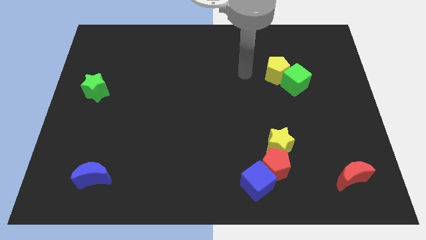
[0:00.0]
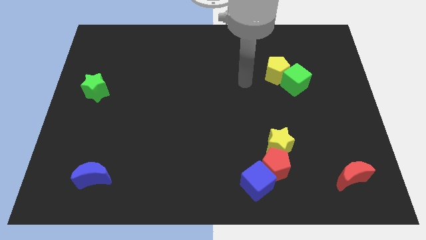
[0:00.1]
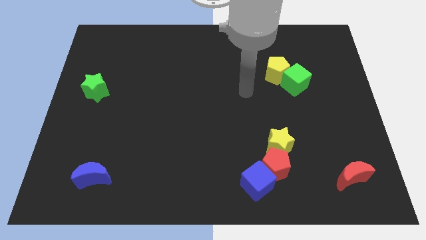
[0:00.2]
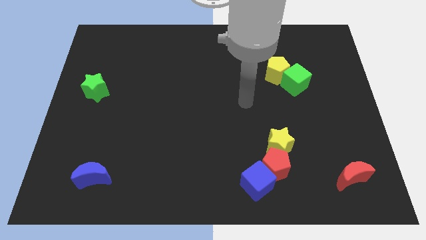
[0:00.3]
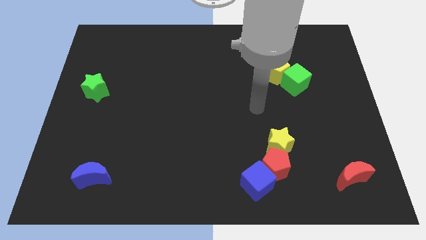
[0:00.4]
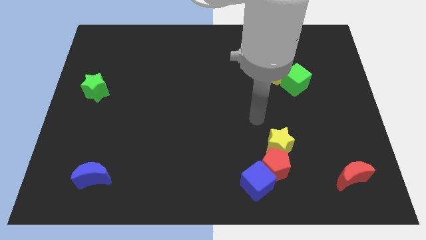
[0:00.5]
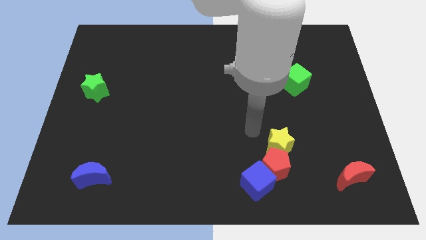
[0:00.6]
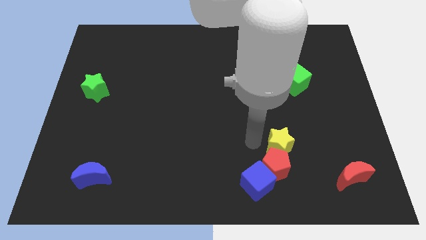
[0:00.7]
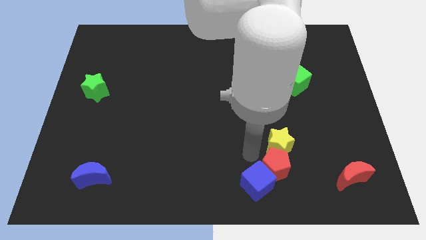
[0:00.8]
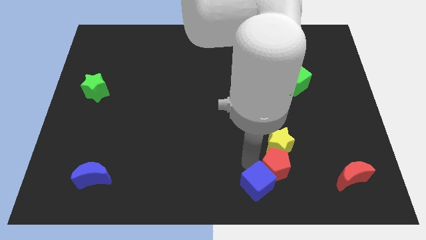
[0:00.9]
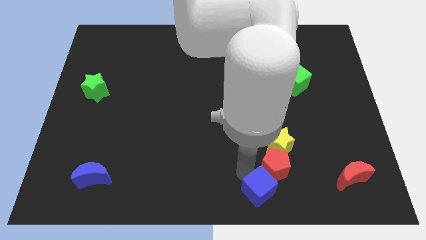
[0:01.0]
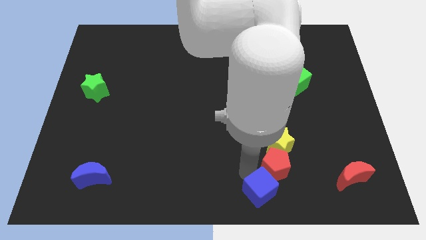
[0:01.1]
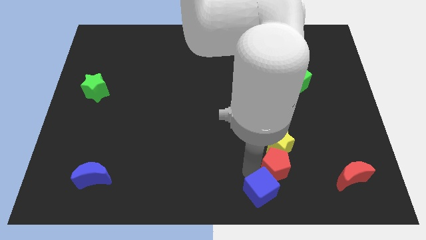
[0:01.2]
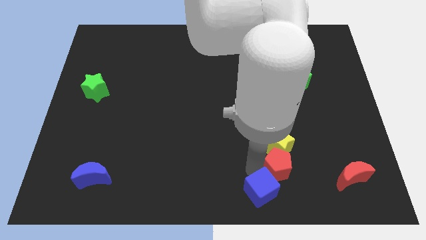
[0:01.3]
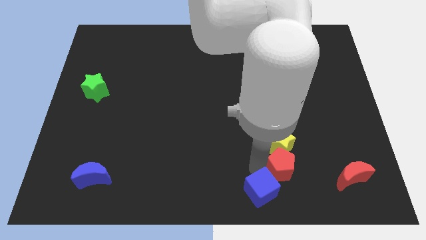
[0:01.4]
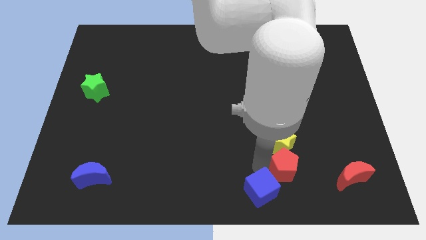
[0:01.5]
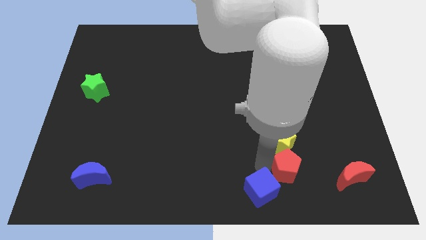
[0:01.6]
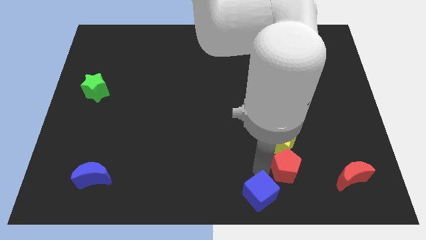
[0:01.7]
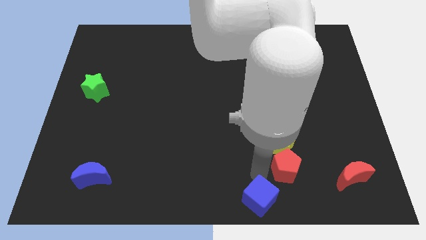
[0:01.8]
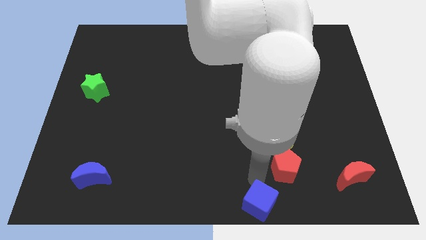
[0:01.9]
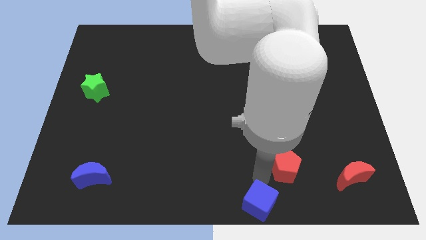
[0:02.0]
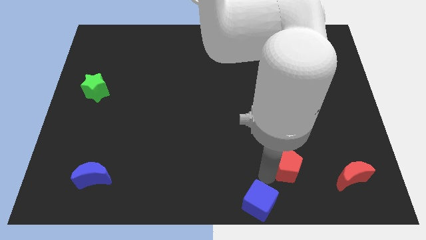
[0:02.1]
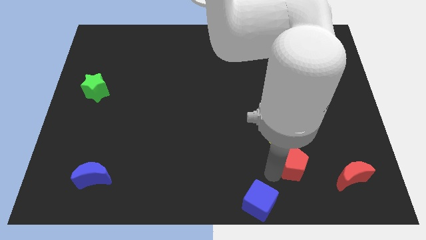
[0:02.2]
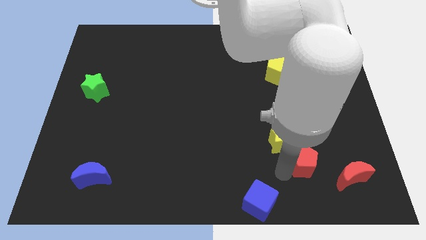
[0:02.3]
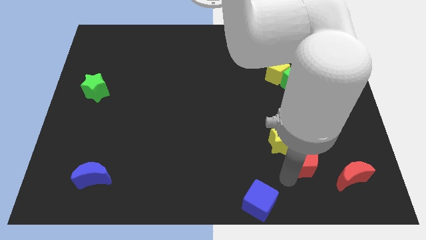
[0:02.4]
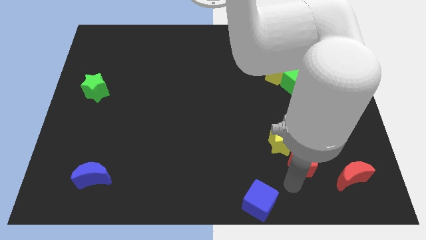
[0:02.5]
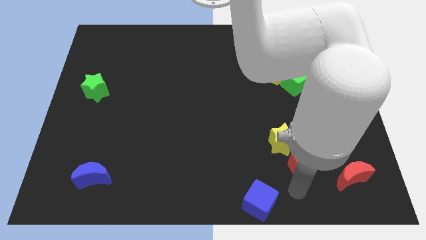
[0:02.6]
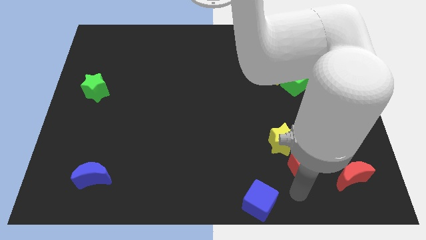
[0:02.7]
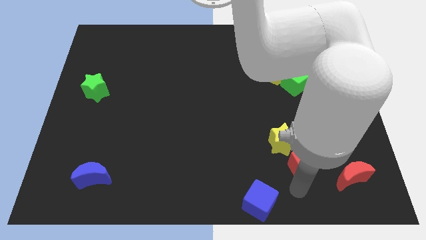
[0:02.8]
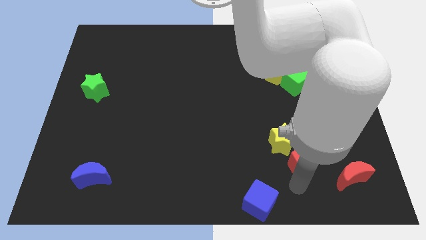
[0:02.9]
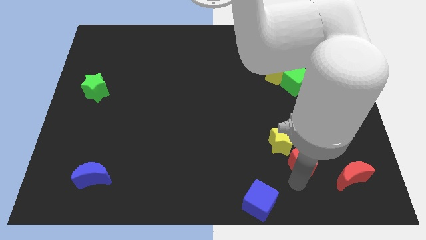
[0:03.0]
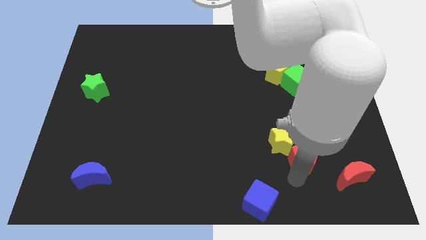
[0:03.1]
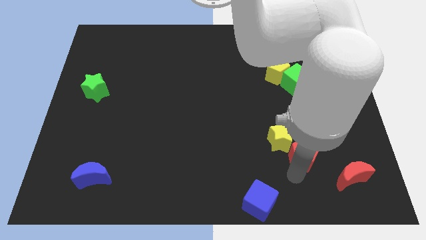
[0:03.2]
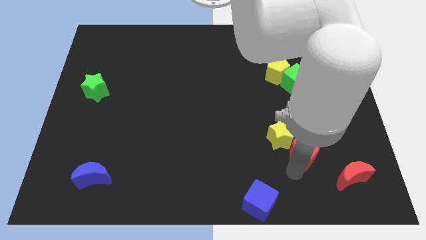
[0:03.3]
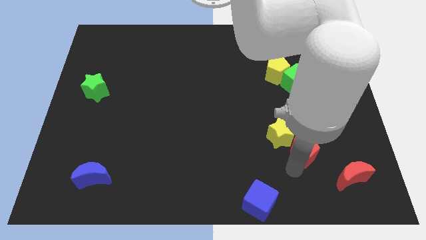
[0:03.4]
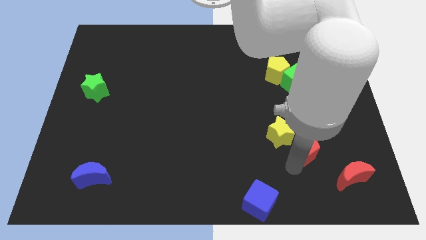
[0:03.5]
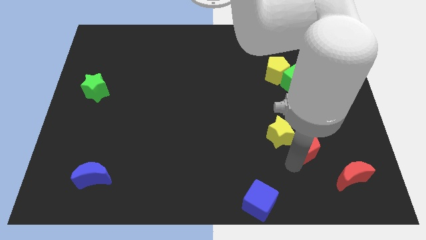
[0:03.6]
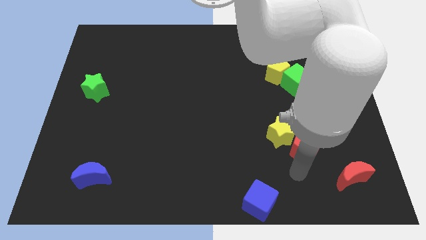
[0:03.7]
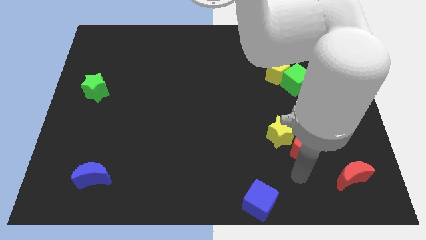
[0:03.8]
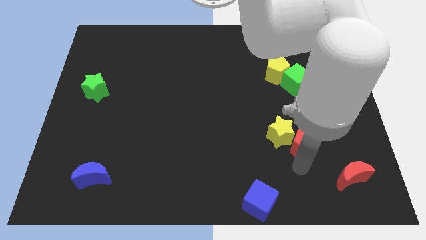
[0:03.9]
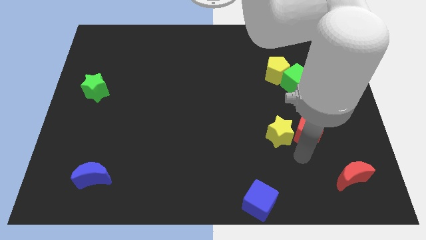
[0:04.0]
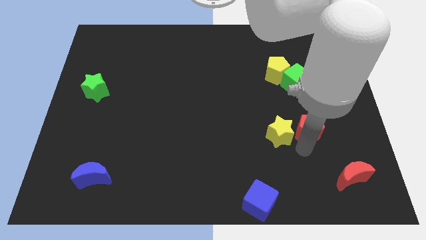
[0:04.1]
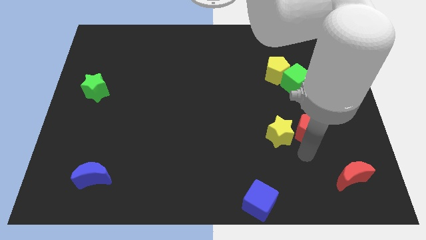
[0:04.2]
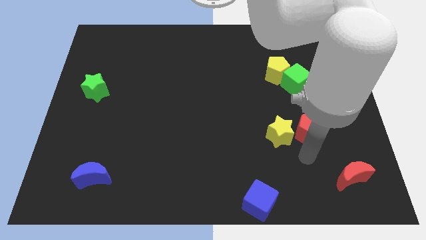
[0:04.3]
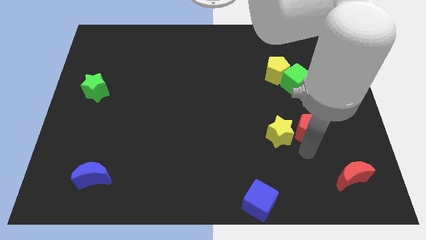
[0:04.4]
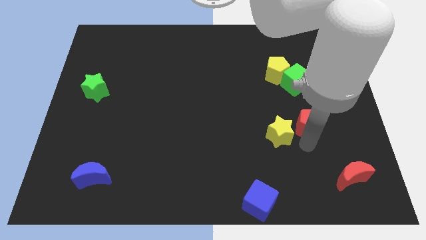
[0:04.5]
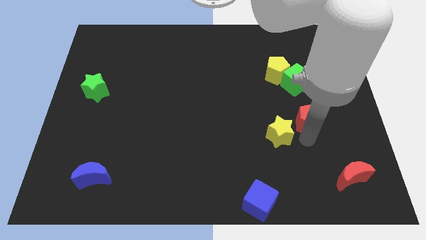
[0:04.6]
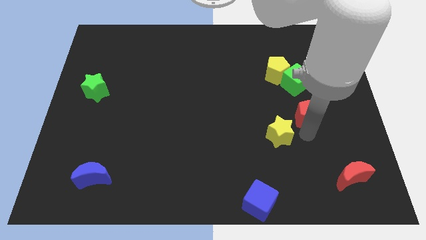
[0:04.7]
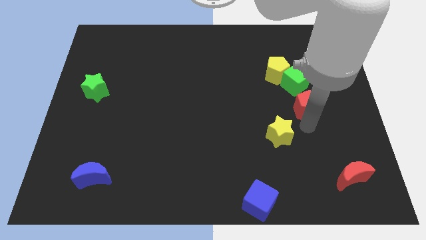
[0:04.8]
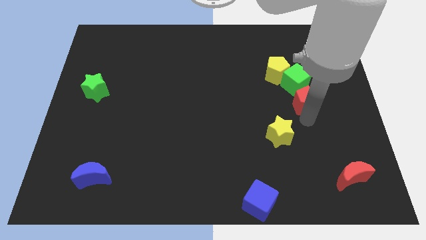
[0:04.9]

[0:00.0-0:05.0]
move the red pentagon diagonally down and to the right of the yellow pentagon

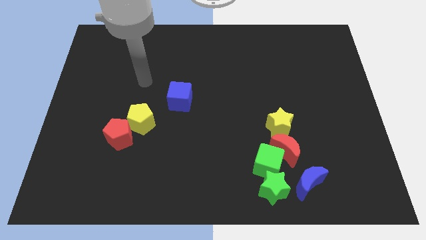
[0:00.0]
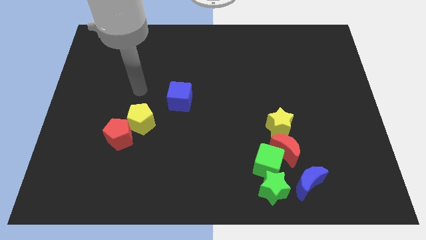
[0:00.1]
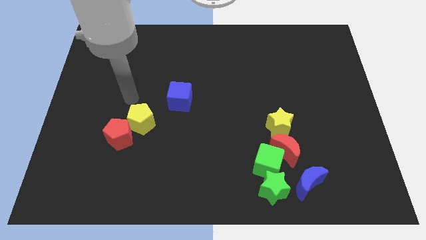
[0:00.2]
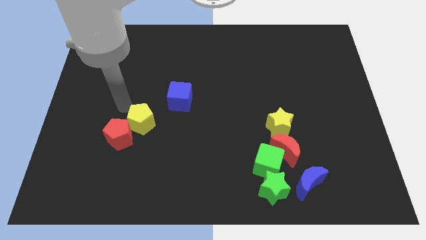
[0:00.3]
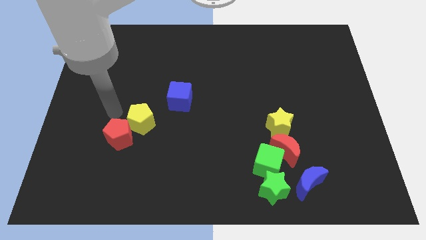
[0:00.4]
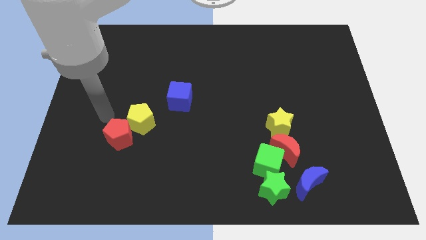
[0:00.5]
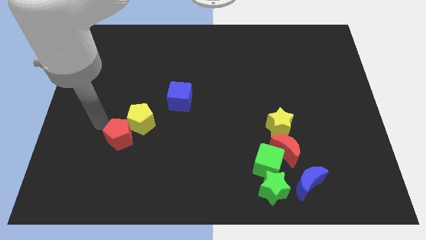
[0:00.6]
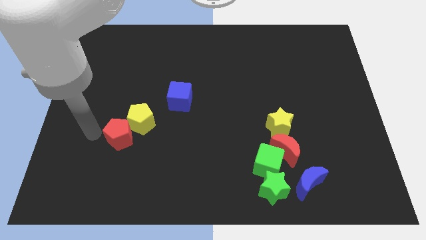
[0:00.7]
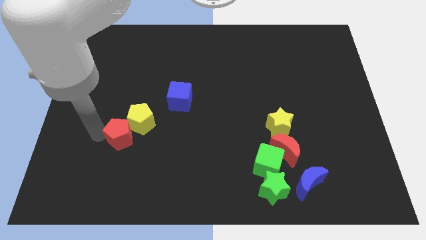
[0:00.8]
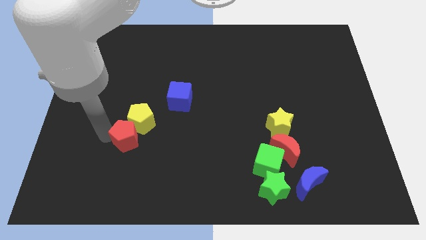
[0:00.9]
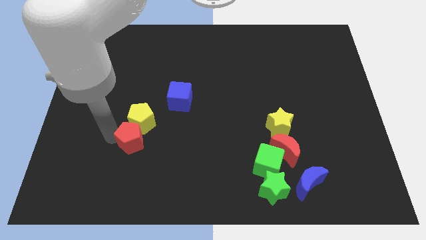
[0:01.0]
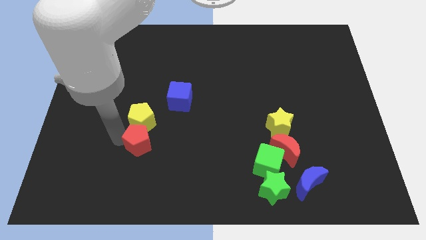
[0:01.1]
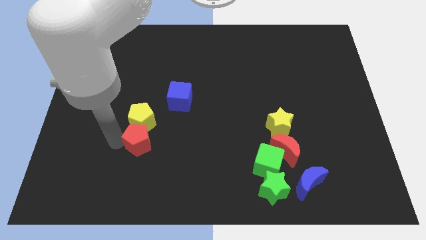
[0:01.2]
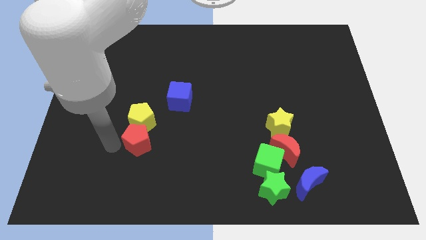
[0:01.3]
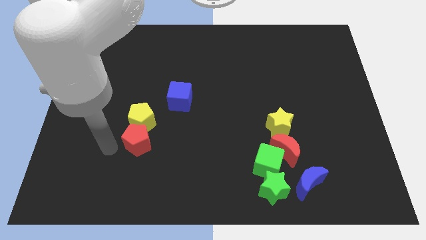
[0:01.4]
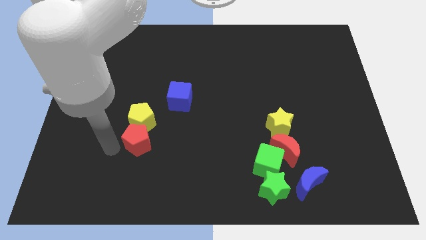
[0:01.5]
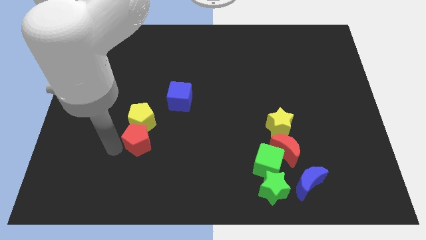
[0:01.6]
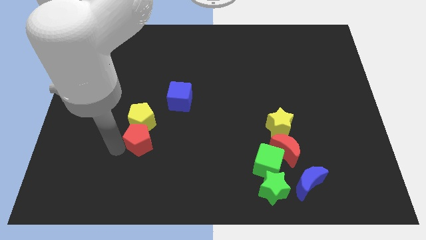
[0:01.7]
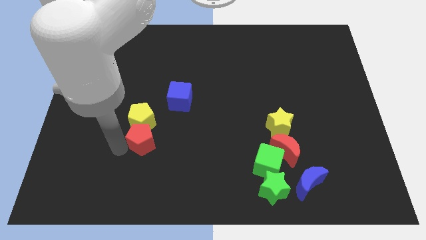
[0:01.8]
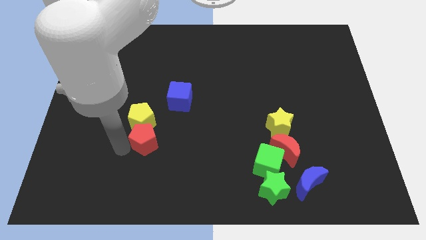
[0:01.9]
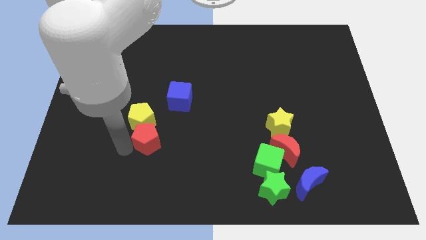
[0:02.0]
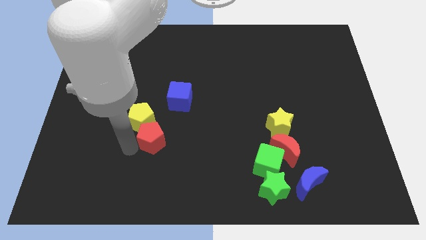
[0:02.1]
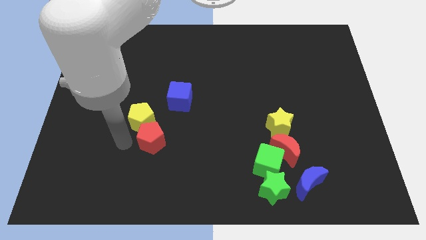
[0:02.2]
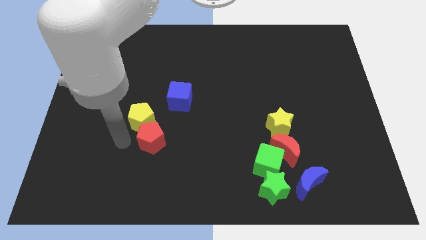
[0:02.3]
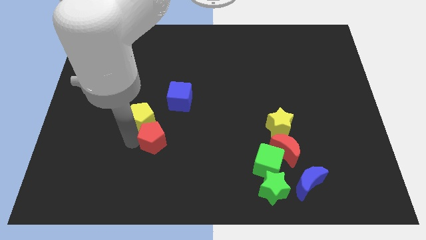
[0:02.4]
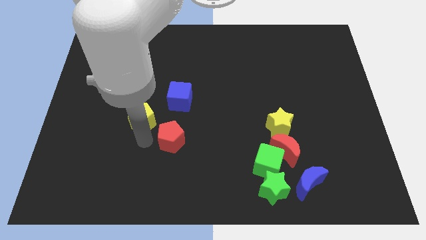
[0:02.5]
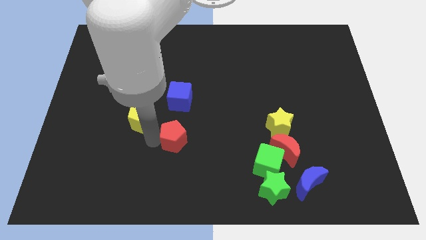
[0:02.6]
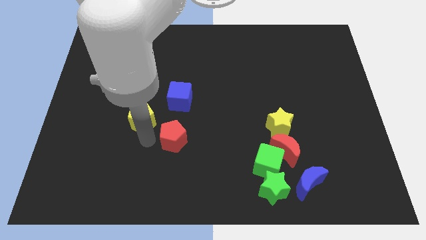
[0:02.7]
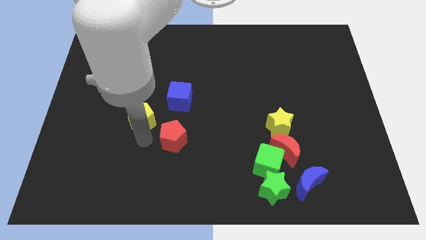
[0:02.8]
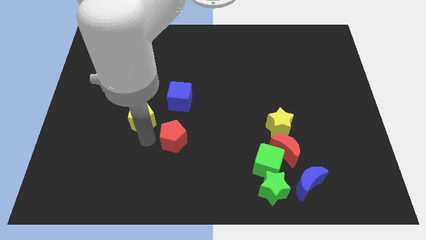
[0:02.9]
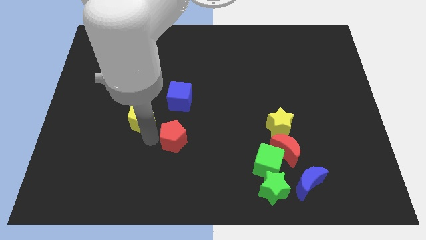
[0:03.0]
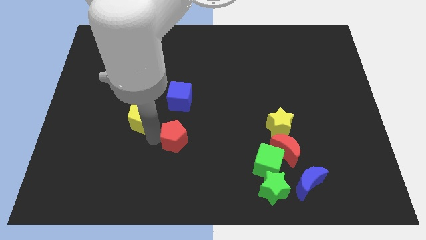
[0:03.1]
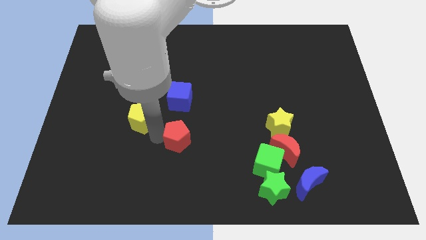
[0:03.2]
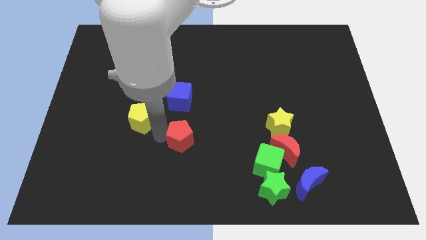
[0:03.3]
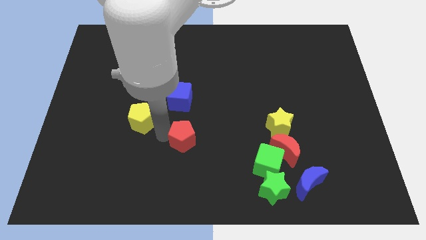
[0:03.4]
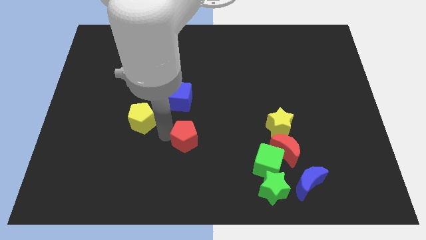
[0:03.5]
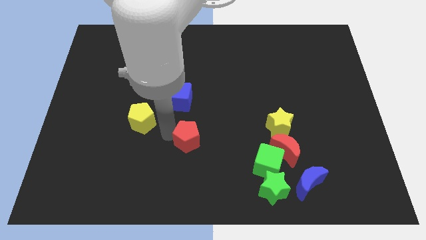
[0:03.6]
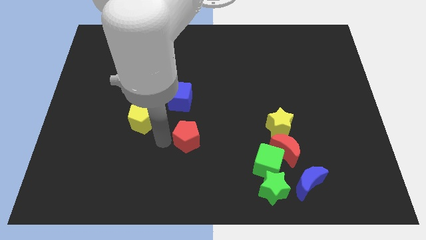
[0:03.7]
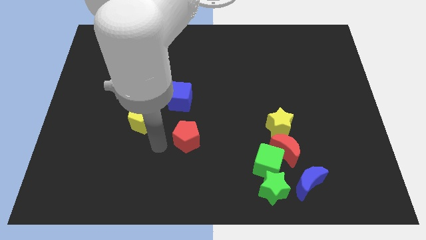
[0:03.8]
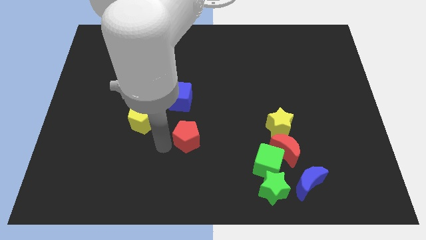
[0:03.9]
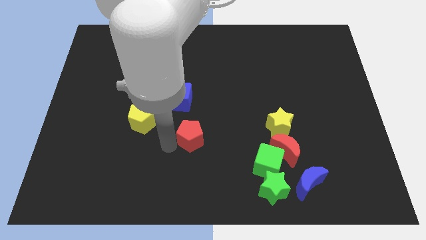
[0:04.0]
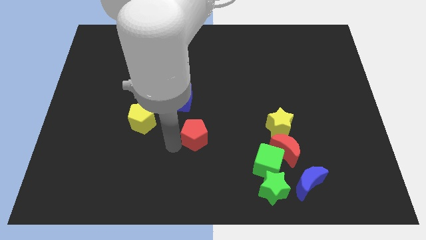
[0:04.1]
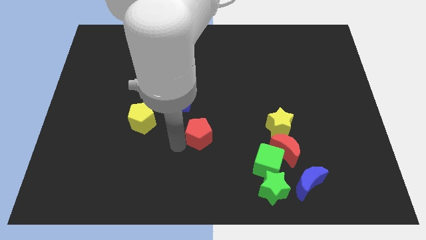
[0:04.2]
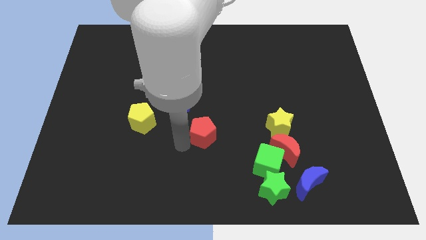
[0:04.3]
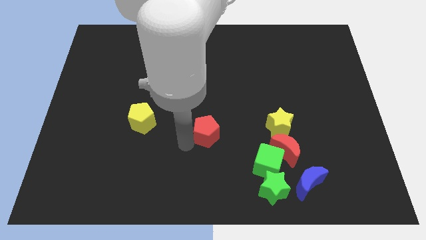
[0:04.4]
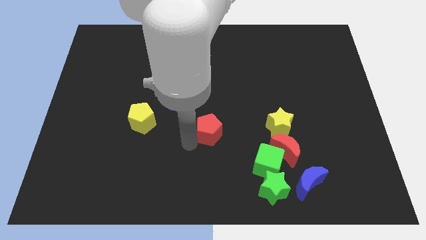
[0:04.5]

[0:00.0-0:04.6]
slide the red pentagon to the left of the yellow star
